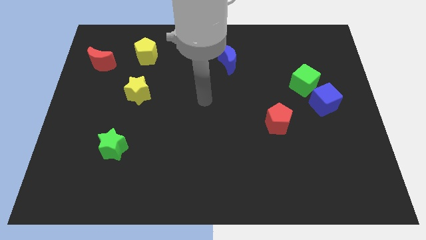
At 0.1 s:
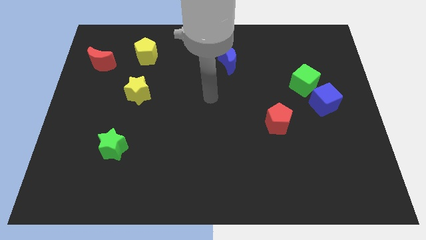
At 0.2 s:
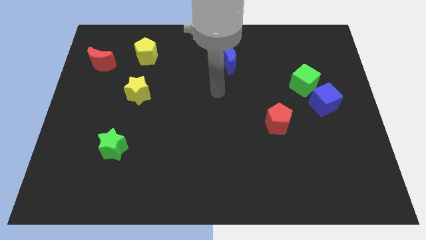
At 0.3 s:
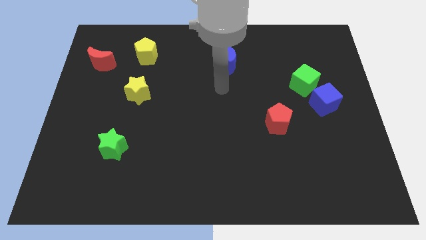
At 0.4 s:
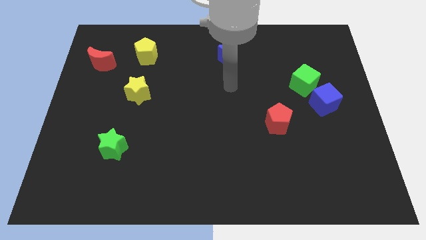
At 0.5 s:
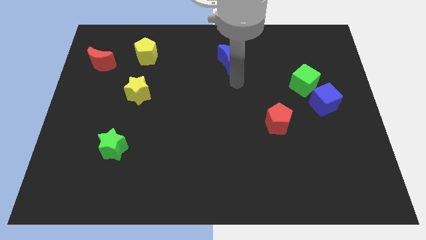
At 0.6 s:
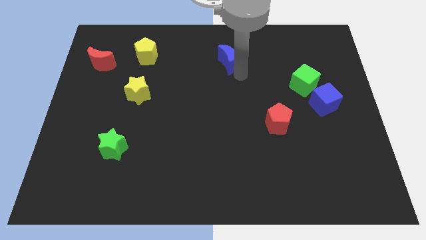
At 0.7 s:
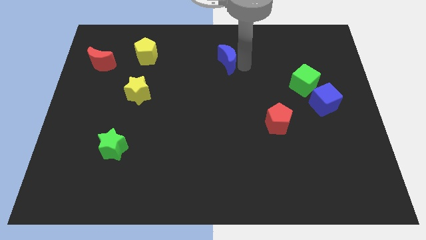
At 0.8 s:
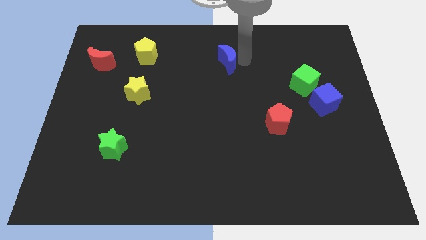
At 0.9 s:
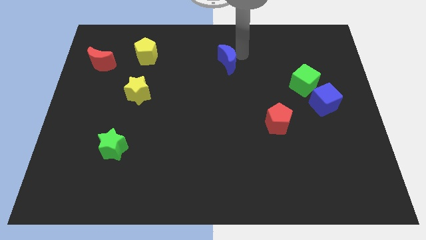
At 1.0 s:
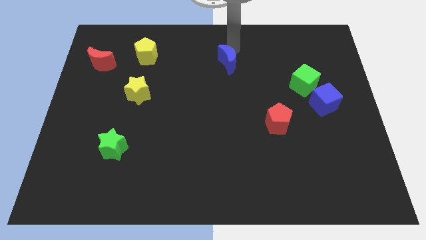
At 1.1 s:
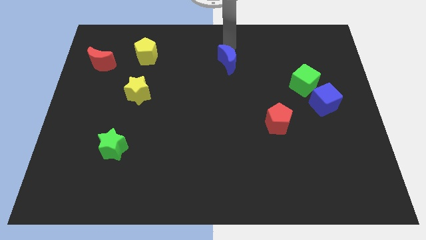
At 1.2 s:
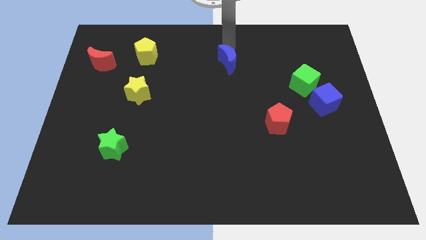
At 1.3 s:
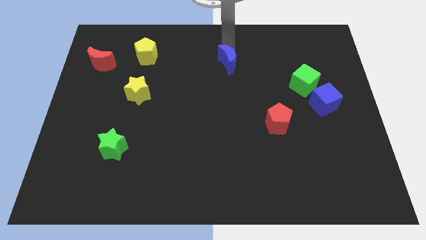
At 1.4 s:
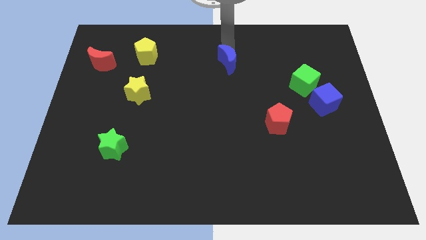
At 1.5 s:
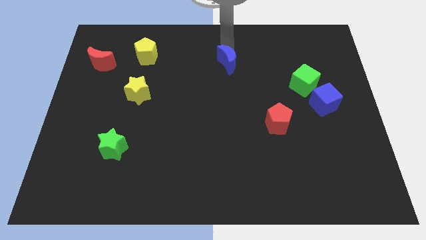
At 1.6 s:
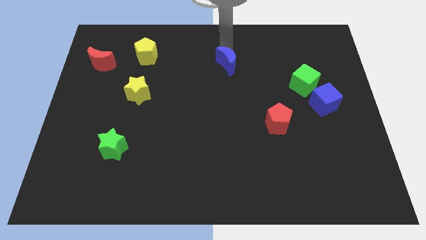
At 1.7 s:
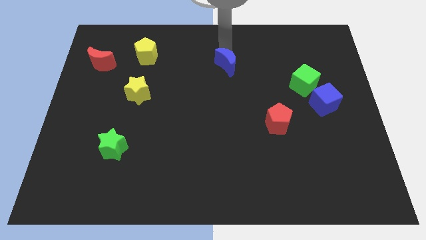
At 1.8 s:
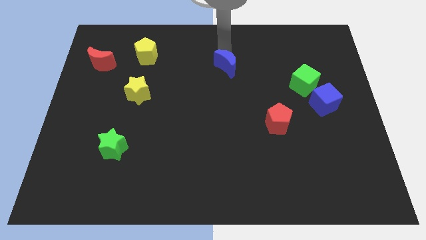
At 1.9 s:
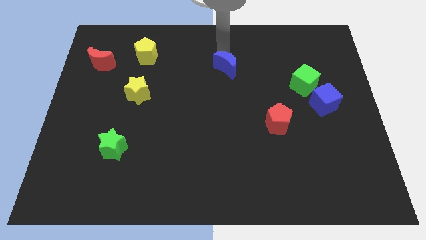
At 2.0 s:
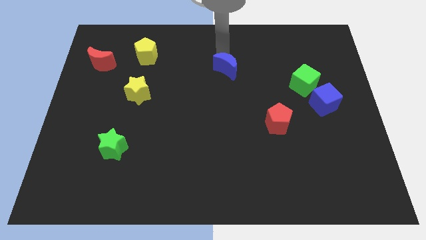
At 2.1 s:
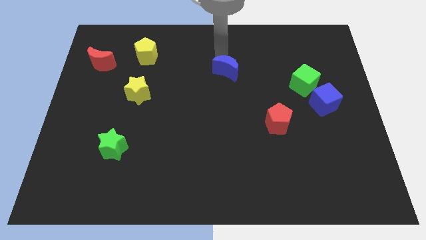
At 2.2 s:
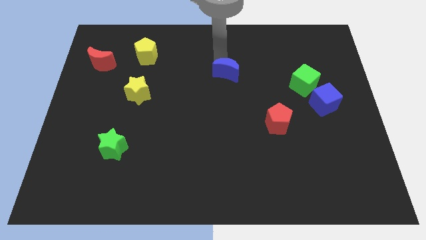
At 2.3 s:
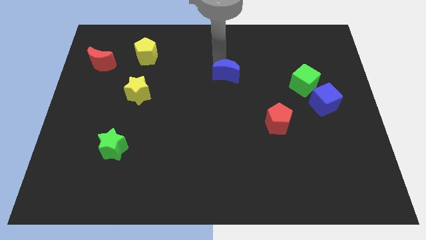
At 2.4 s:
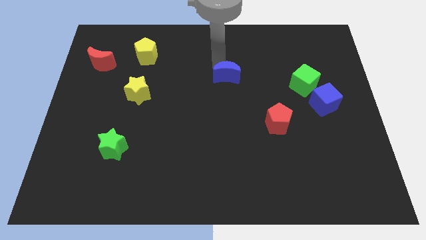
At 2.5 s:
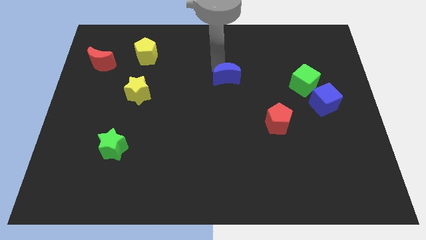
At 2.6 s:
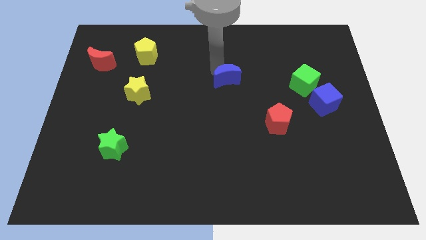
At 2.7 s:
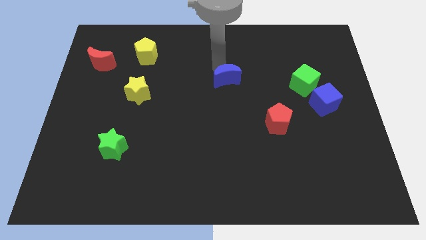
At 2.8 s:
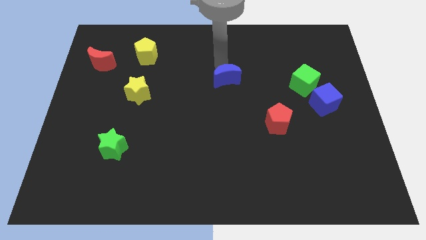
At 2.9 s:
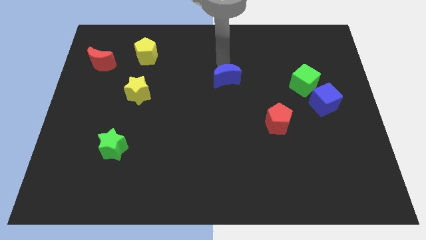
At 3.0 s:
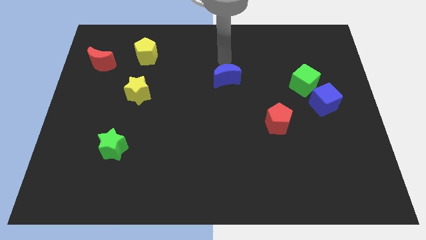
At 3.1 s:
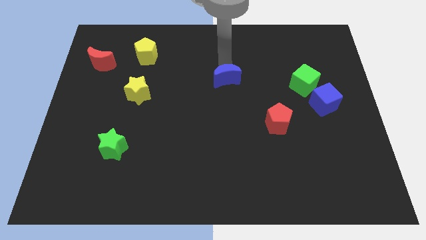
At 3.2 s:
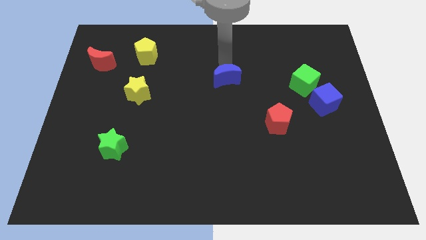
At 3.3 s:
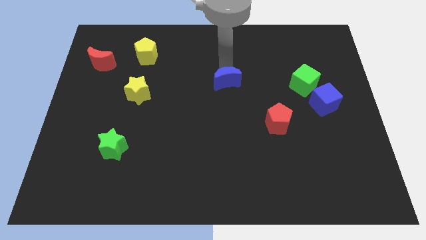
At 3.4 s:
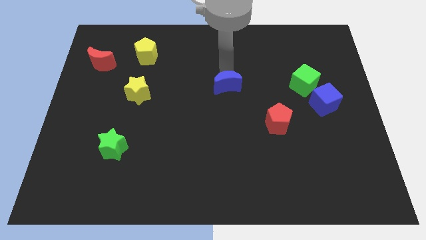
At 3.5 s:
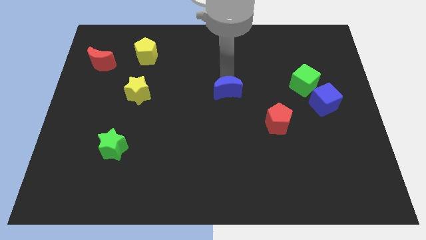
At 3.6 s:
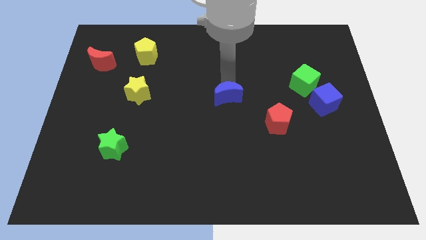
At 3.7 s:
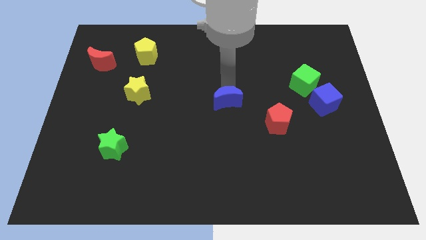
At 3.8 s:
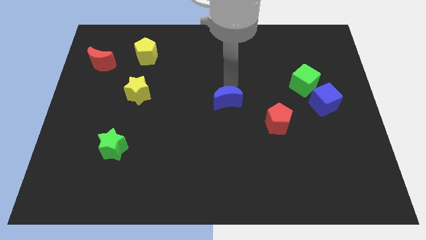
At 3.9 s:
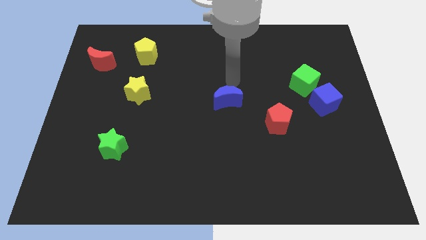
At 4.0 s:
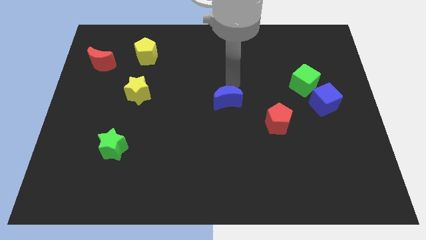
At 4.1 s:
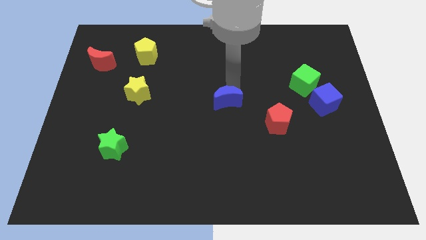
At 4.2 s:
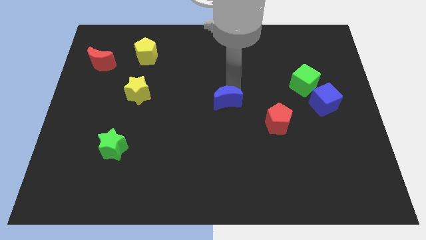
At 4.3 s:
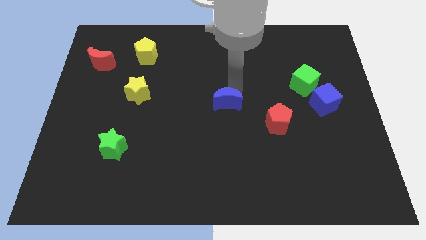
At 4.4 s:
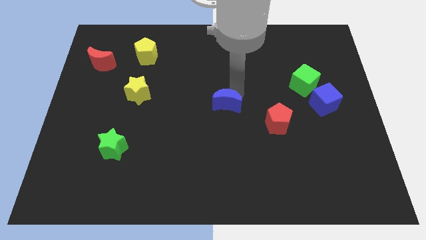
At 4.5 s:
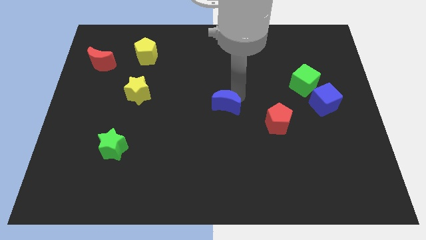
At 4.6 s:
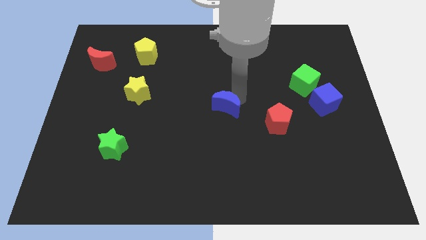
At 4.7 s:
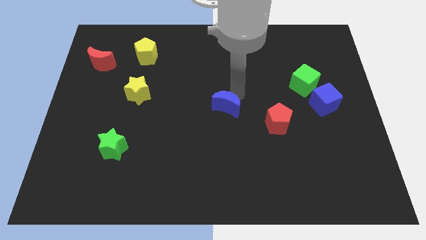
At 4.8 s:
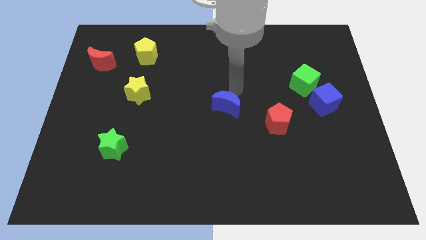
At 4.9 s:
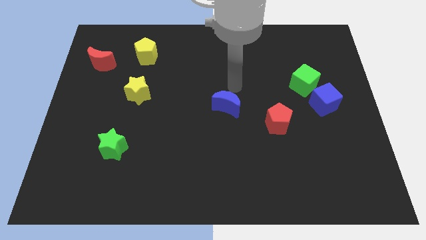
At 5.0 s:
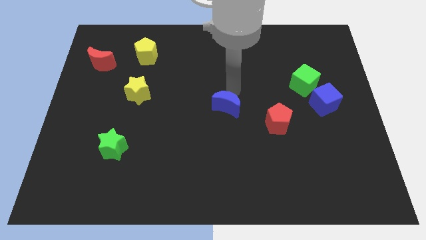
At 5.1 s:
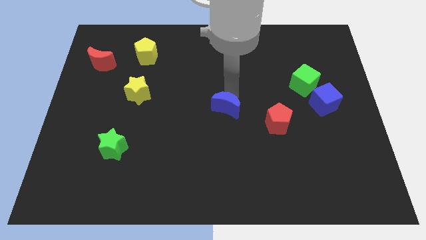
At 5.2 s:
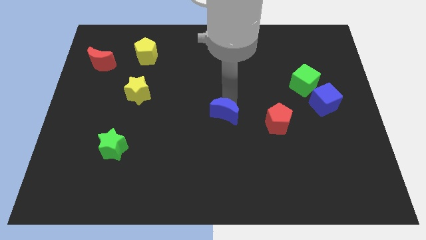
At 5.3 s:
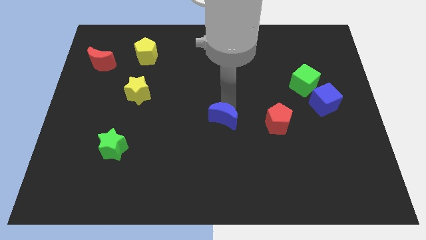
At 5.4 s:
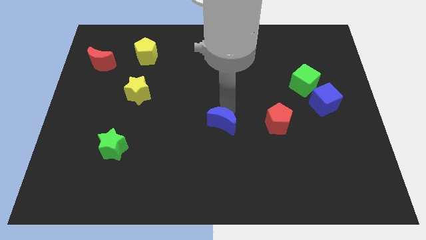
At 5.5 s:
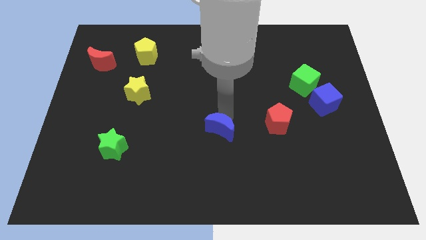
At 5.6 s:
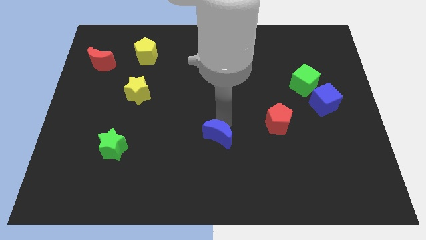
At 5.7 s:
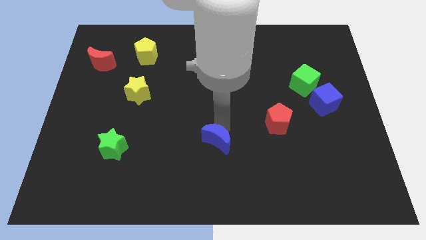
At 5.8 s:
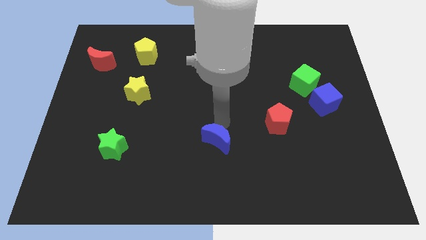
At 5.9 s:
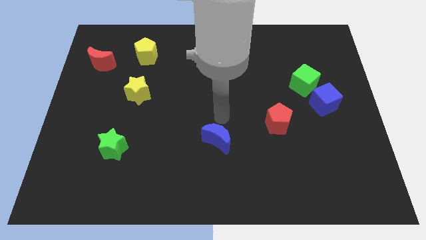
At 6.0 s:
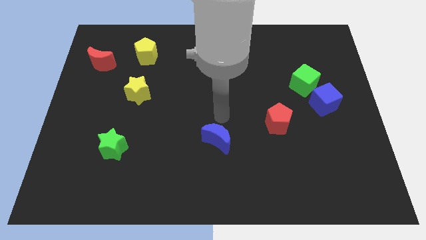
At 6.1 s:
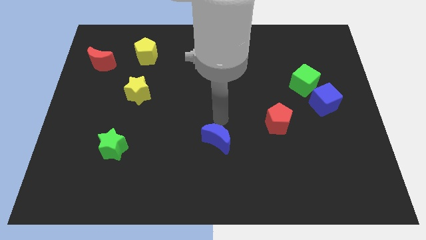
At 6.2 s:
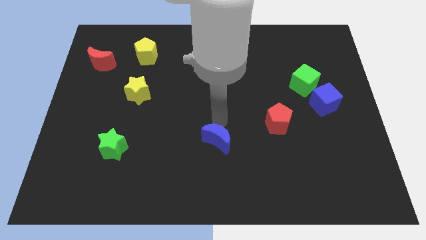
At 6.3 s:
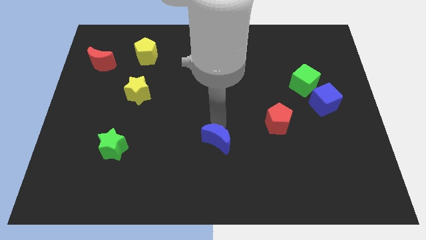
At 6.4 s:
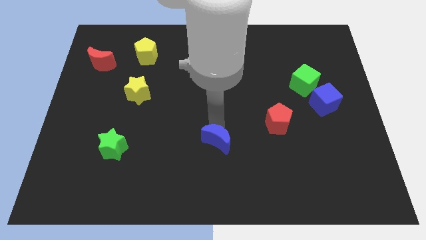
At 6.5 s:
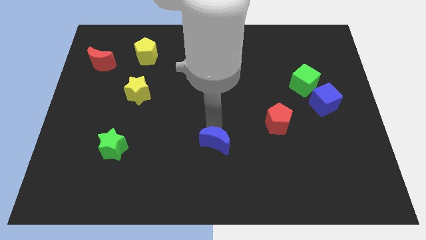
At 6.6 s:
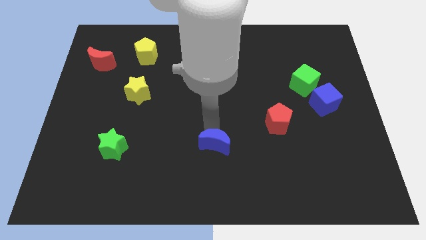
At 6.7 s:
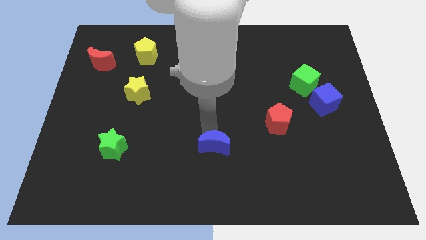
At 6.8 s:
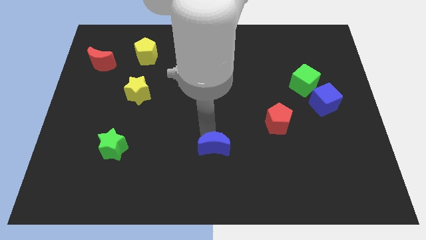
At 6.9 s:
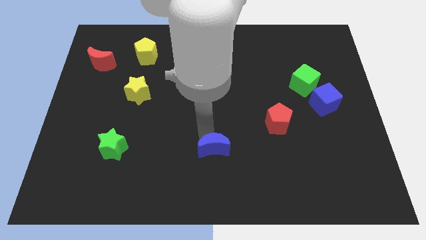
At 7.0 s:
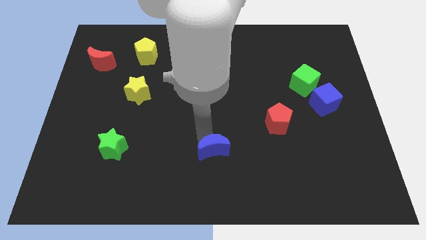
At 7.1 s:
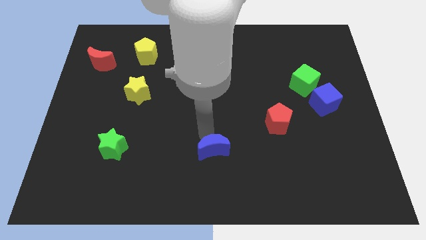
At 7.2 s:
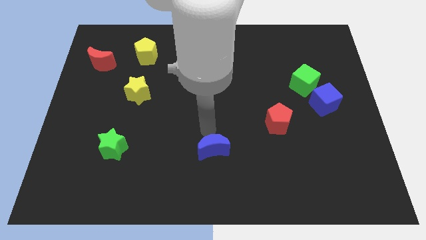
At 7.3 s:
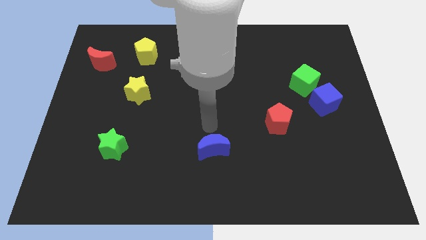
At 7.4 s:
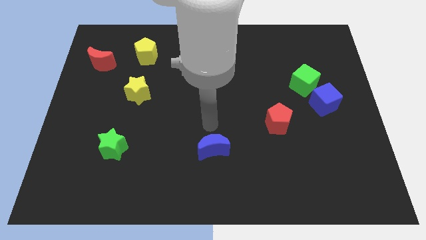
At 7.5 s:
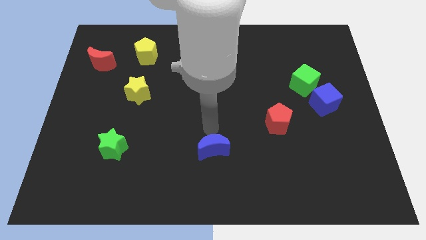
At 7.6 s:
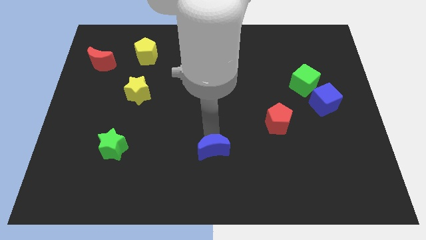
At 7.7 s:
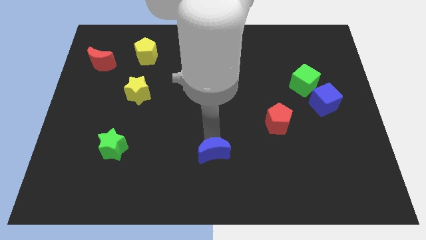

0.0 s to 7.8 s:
put the blue moon to the bottom side
